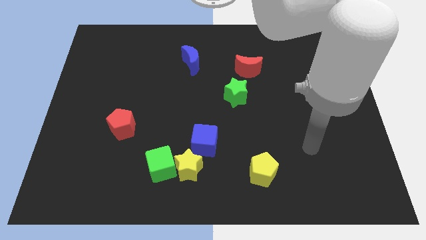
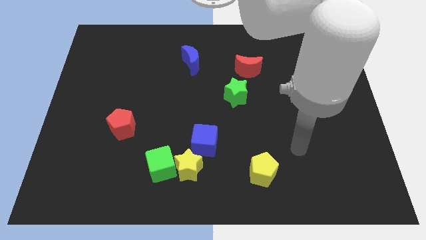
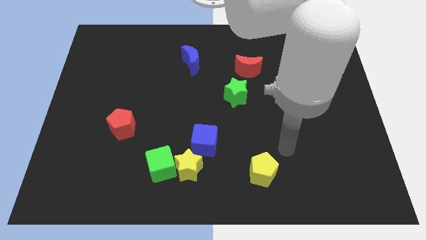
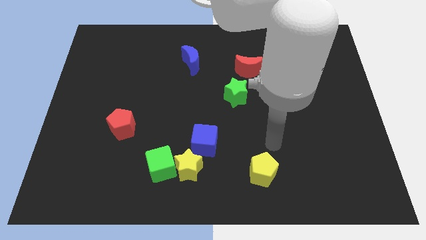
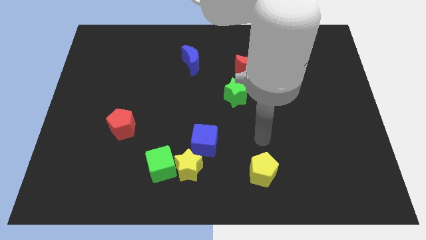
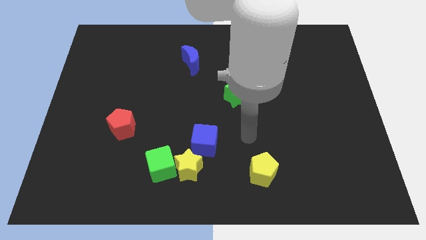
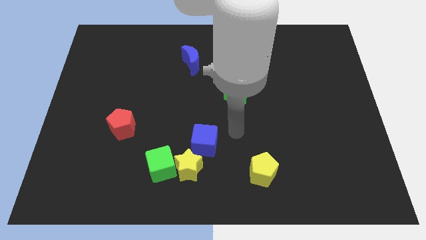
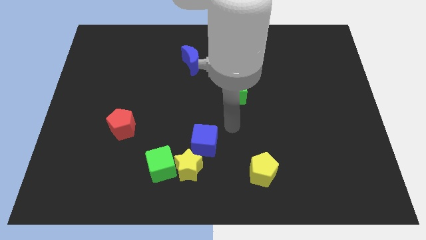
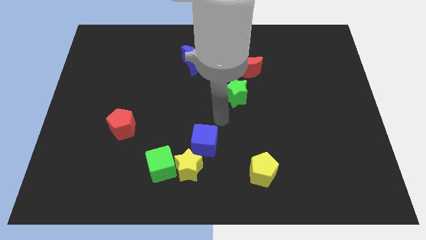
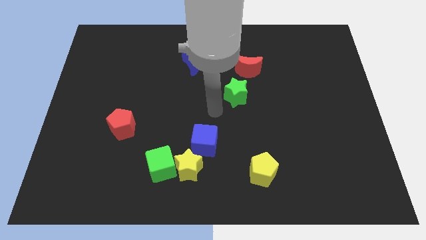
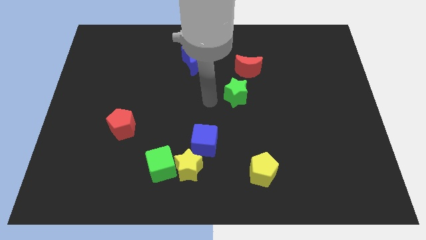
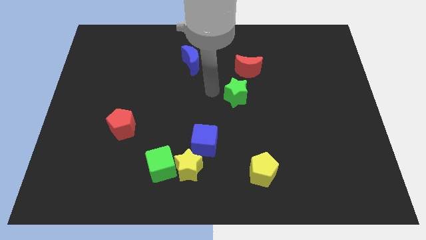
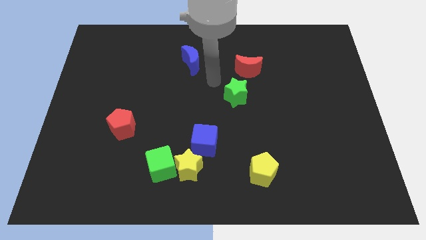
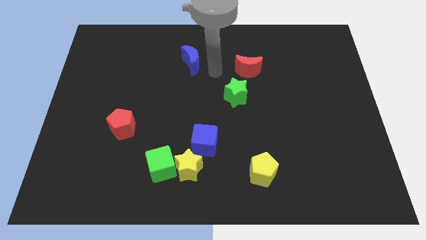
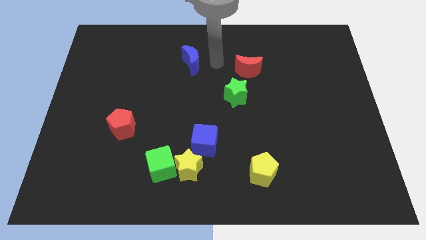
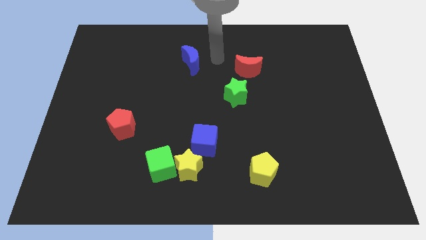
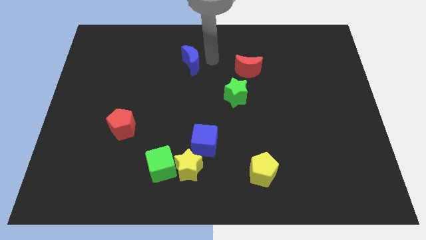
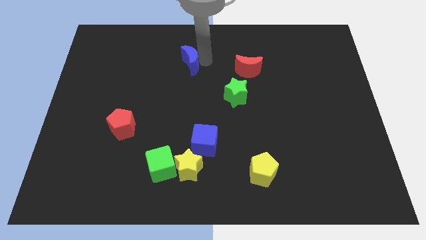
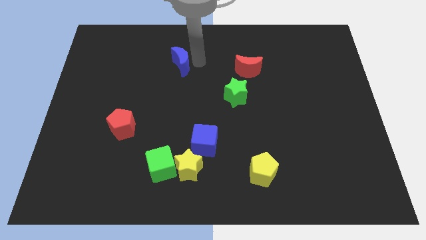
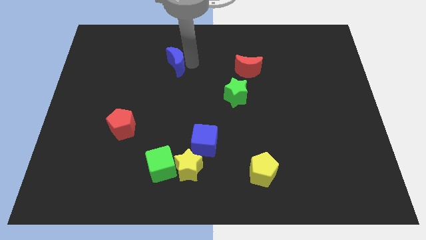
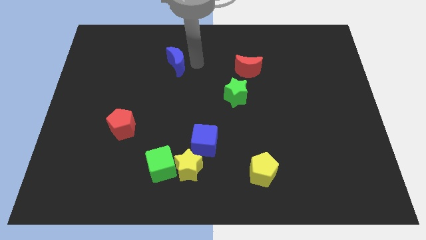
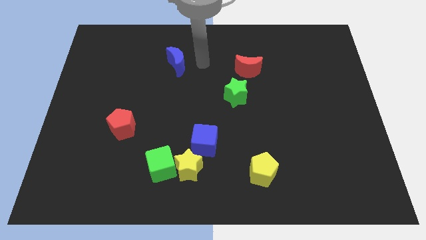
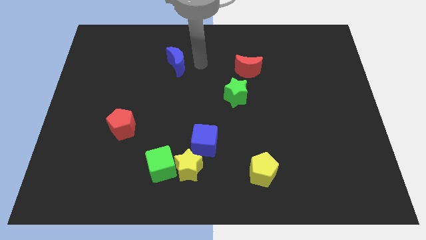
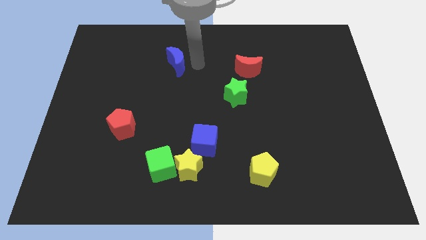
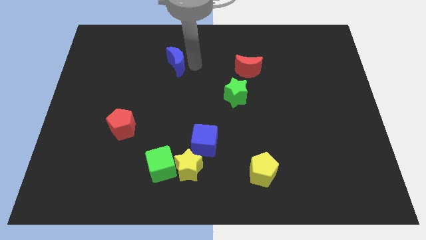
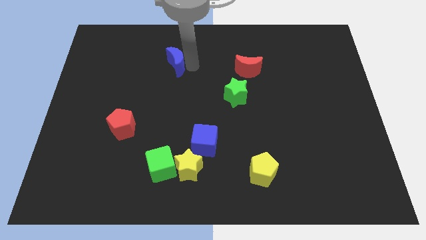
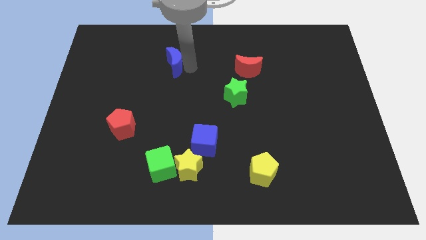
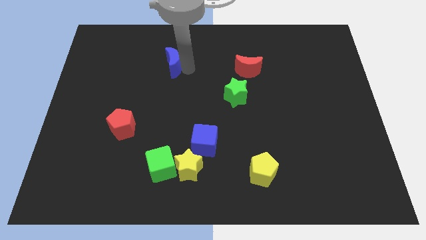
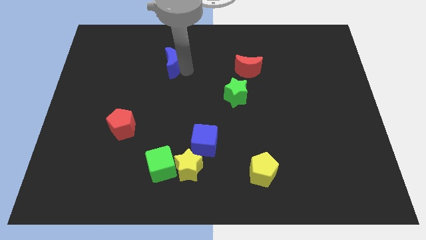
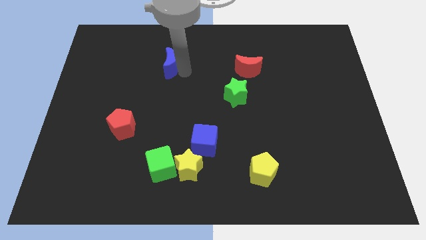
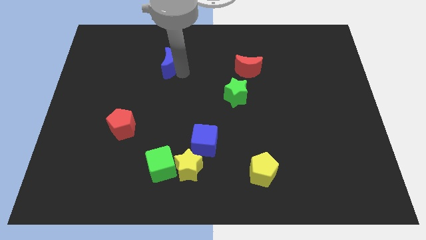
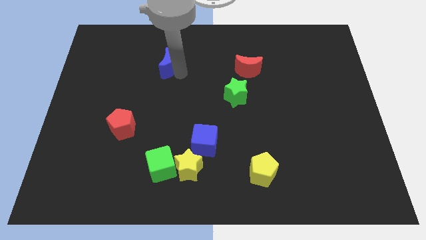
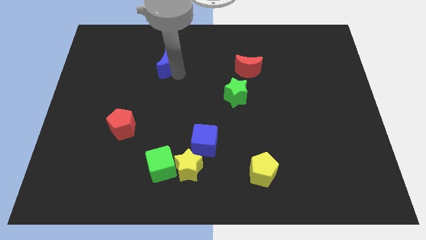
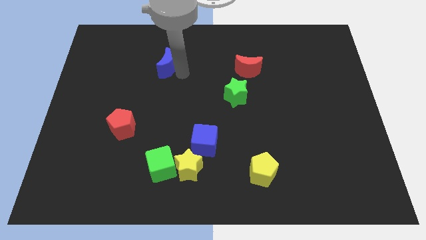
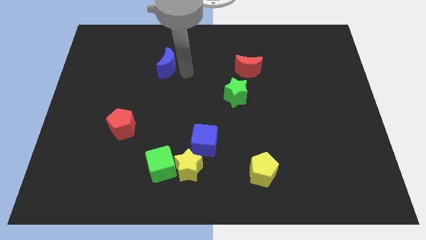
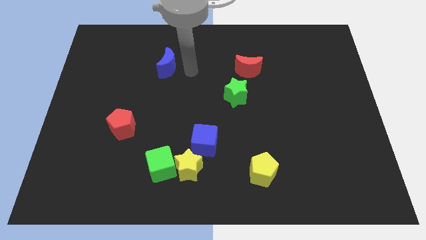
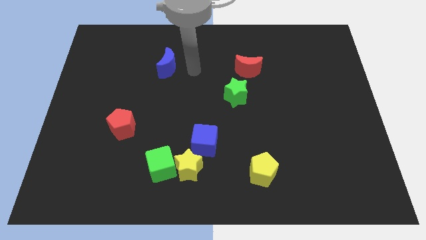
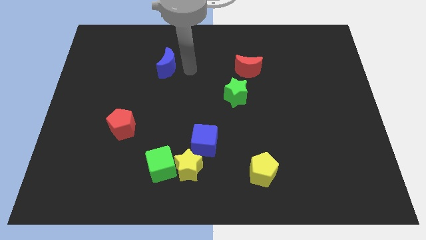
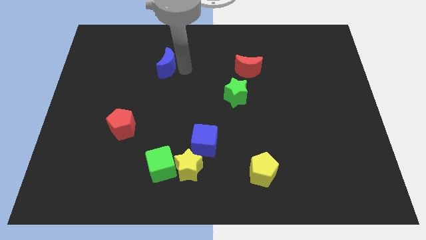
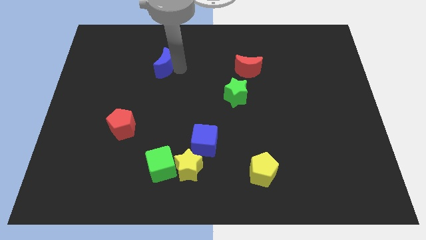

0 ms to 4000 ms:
slightly push the blue moon left

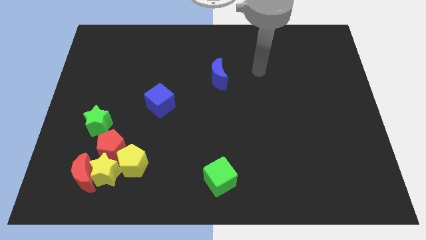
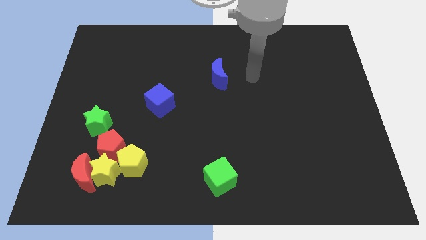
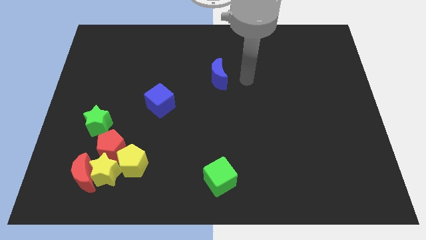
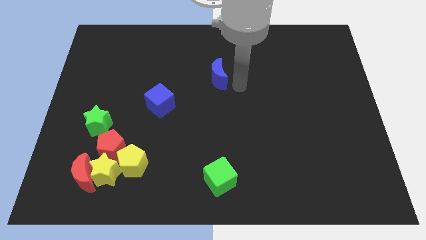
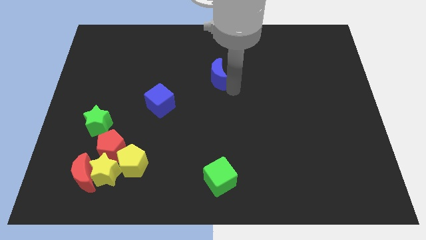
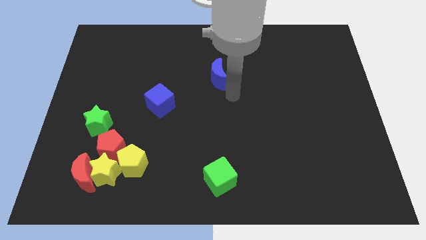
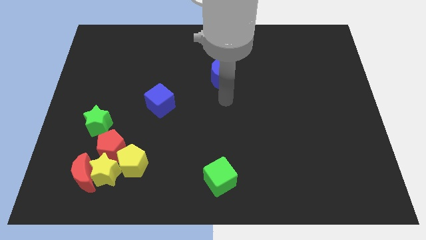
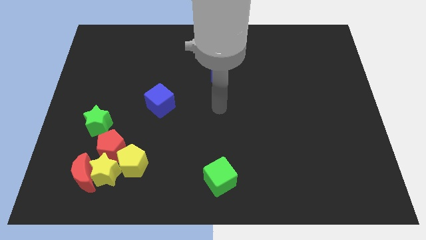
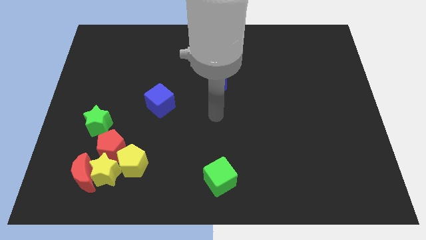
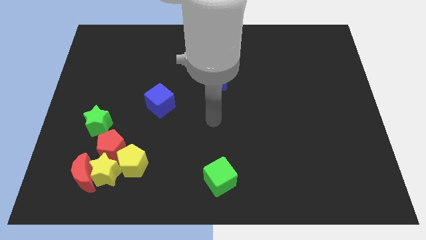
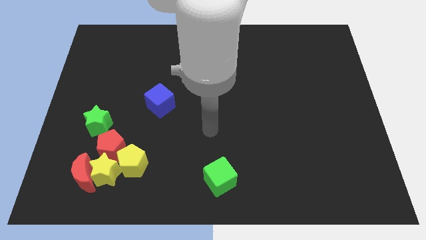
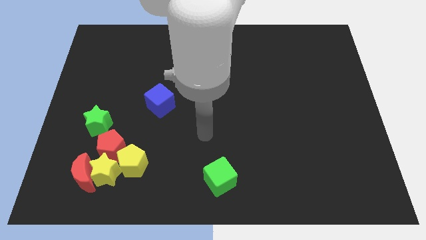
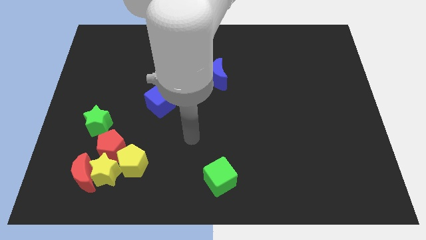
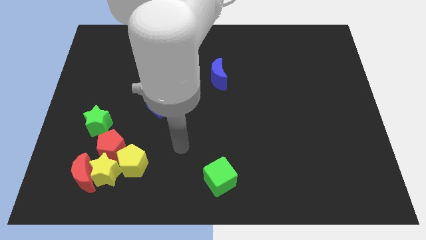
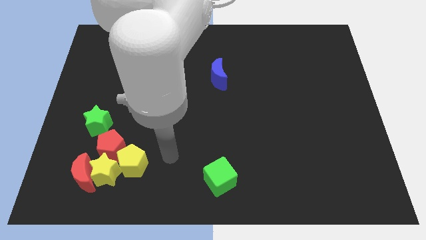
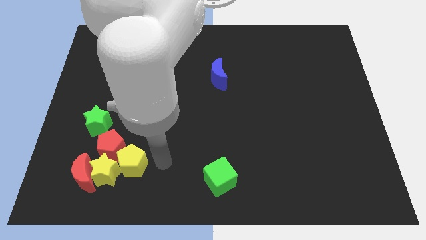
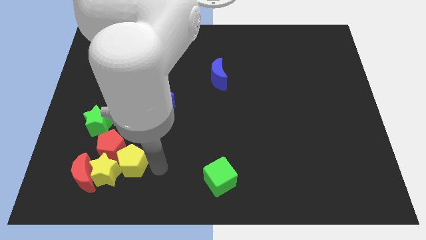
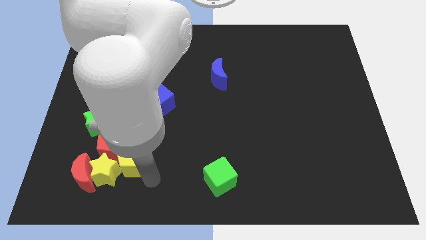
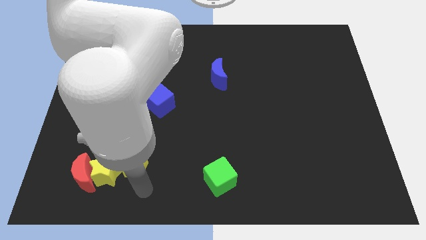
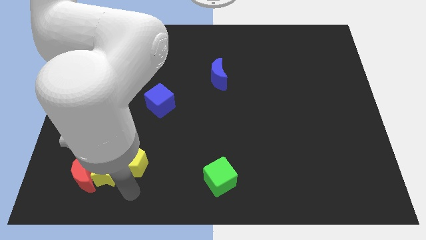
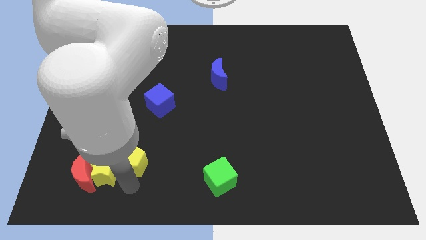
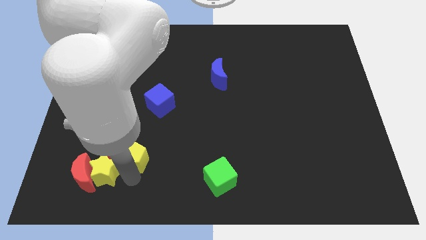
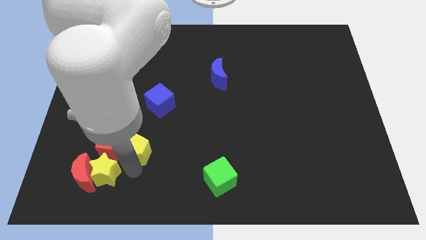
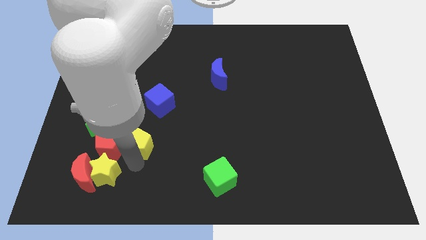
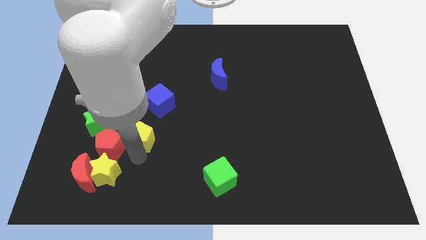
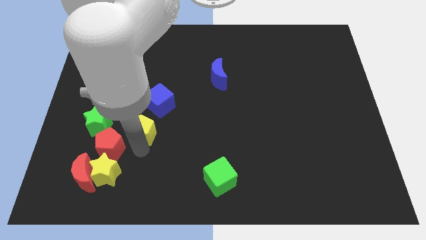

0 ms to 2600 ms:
push the yellow pentagon slightly upwards

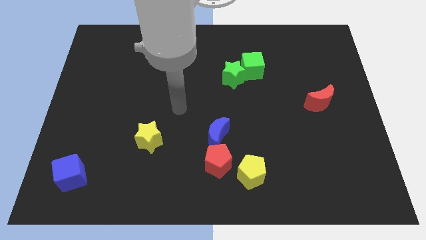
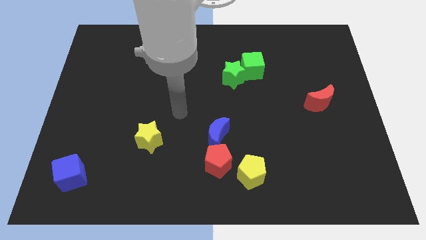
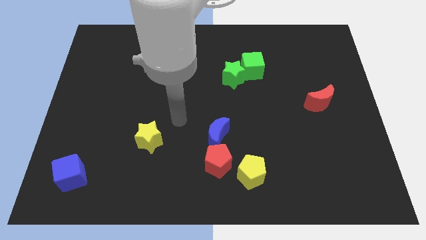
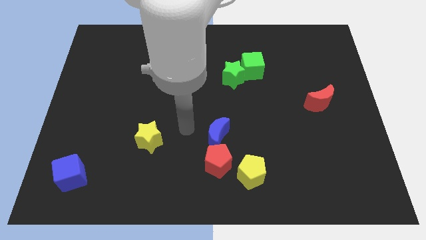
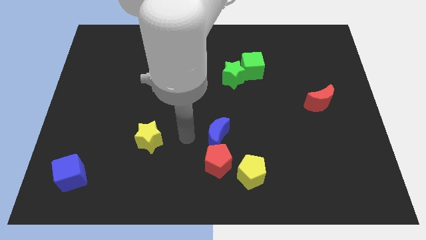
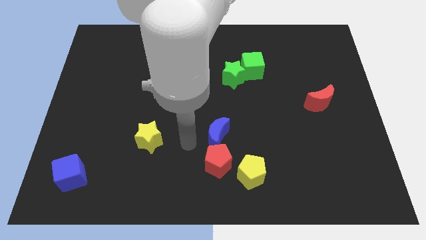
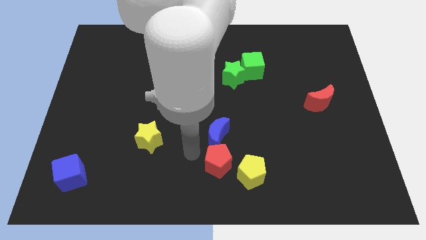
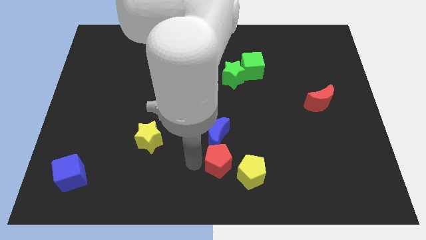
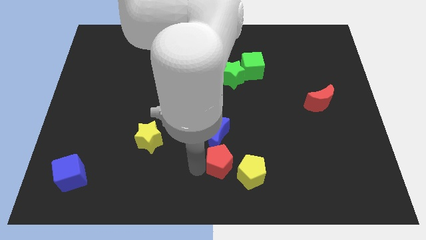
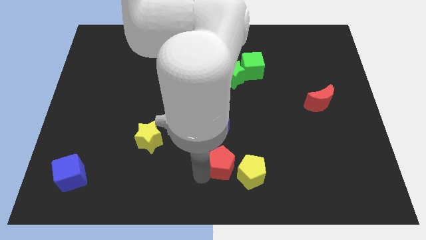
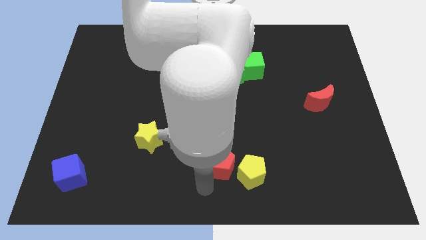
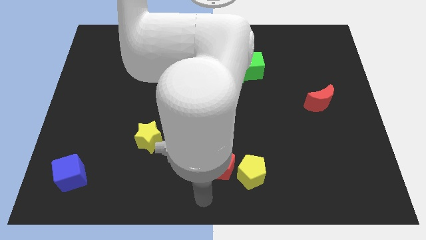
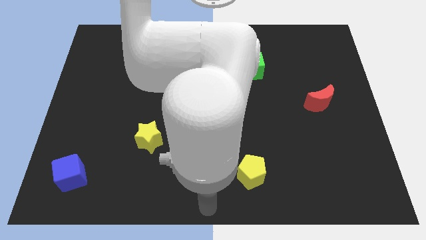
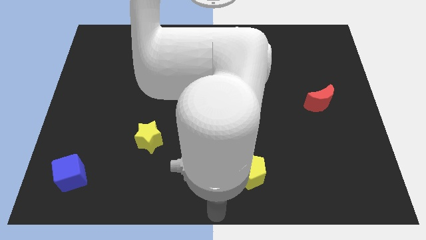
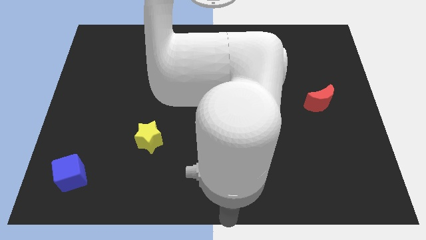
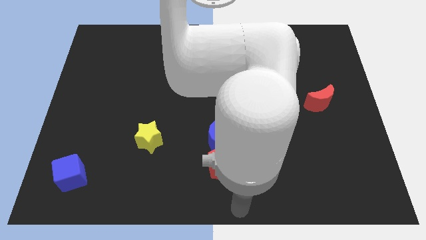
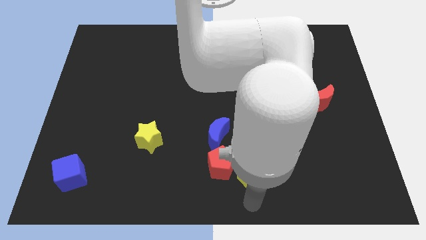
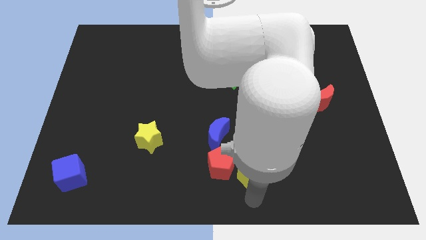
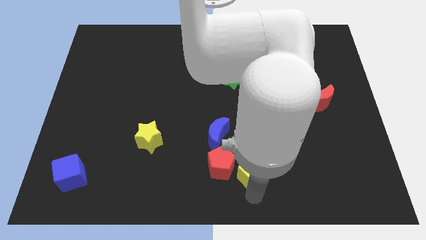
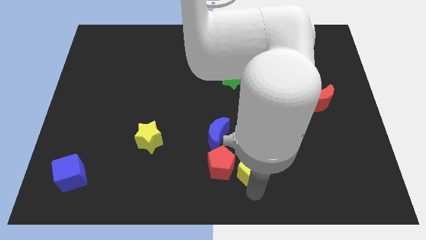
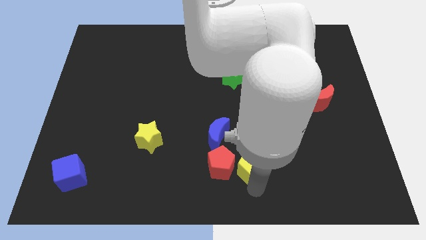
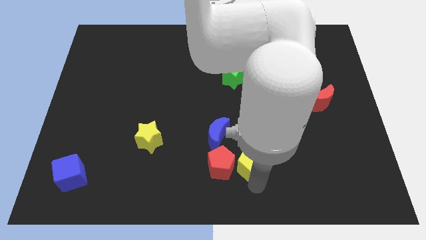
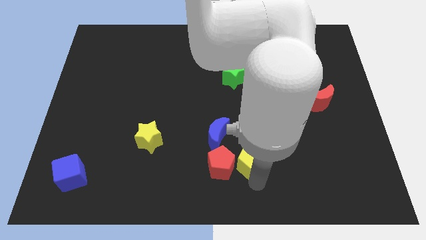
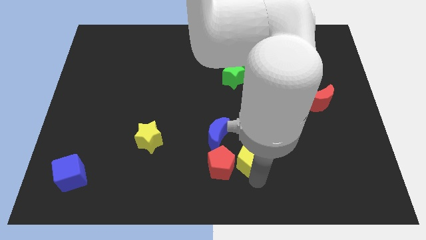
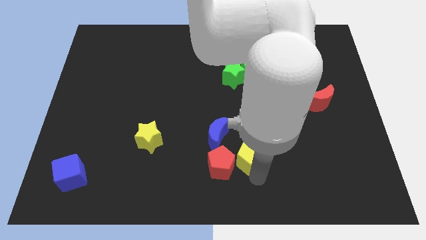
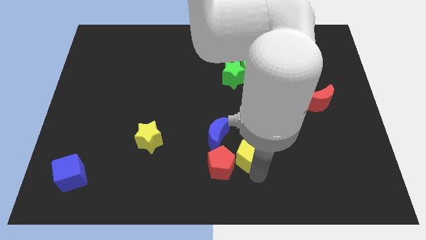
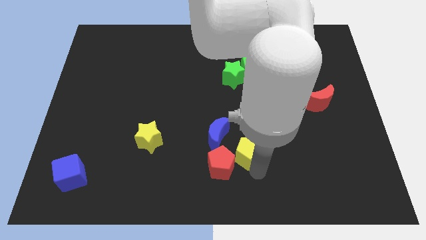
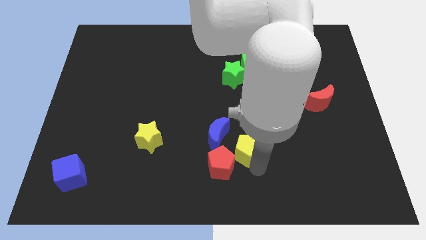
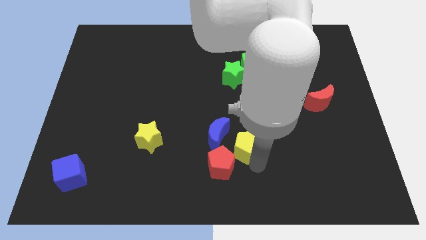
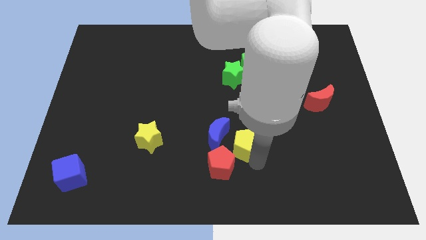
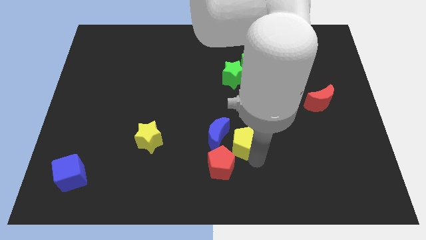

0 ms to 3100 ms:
slide the yellow pentagon upwards a bit
